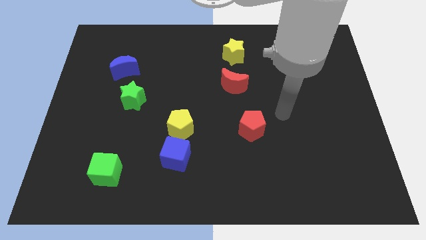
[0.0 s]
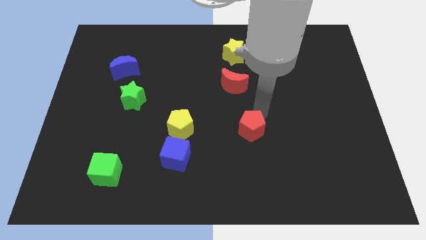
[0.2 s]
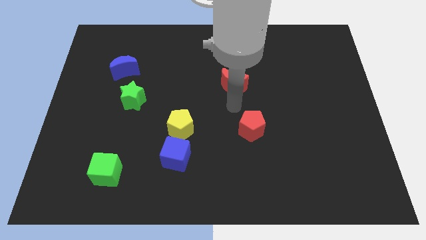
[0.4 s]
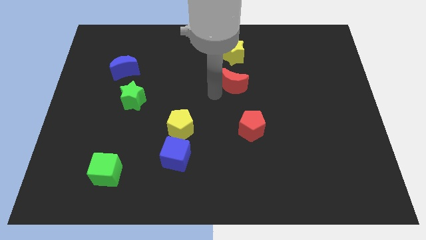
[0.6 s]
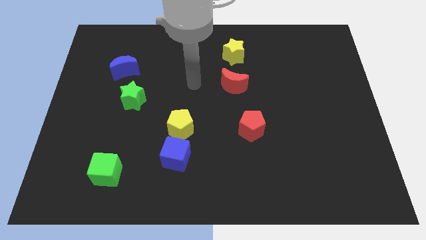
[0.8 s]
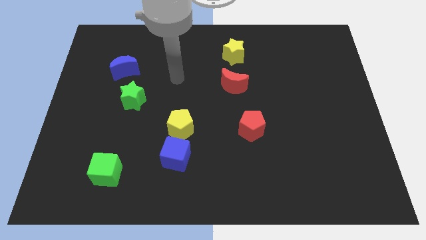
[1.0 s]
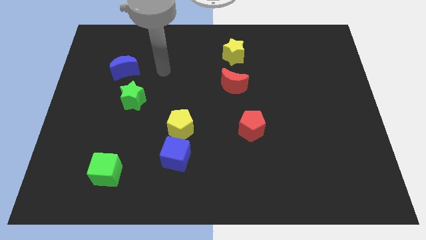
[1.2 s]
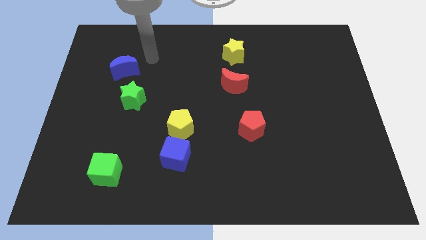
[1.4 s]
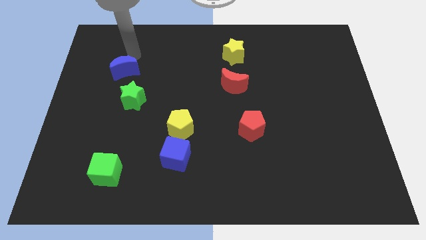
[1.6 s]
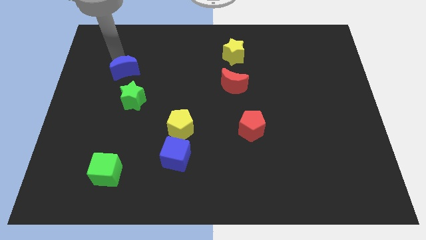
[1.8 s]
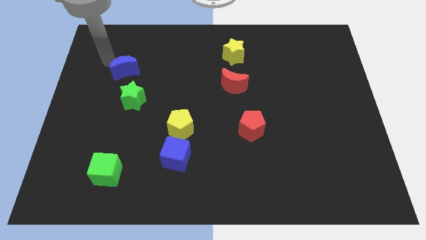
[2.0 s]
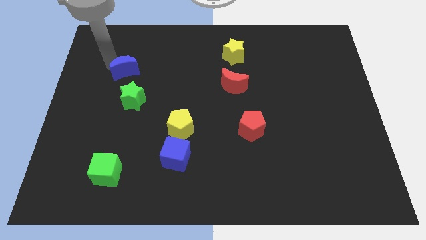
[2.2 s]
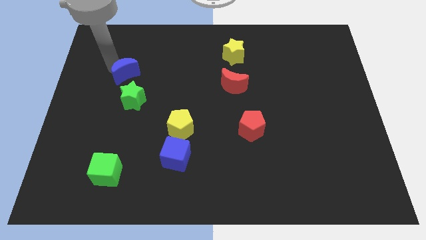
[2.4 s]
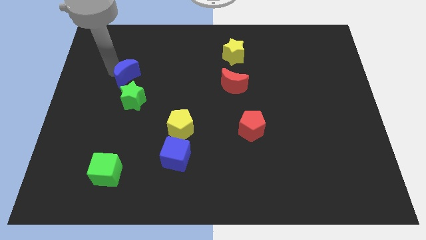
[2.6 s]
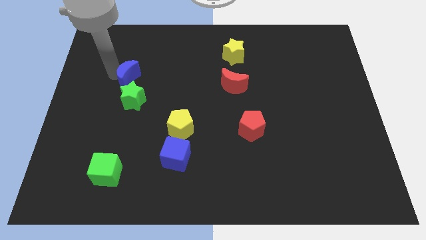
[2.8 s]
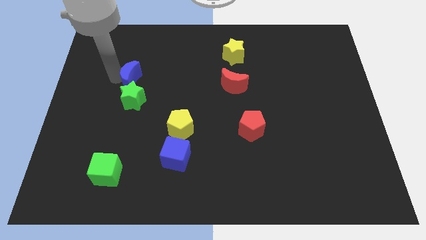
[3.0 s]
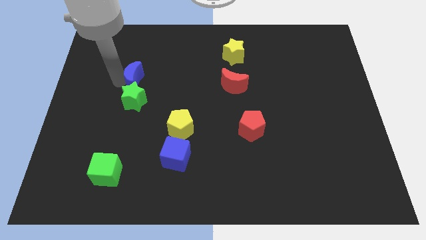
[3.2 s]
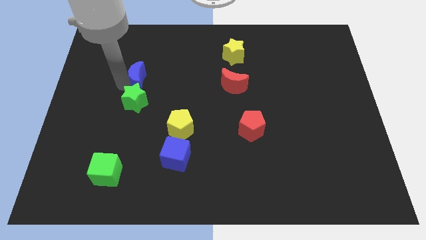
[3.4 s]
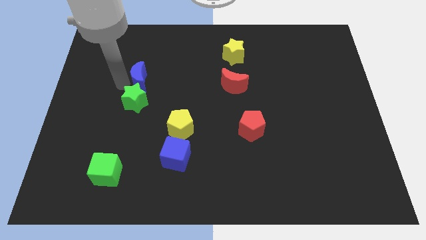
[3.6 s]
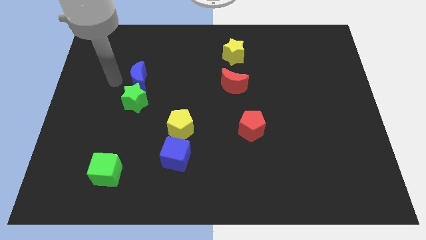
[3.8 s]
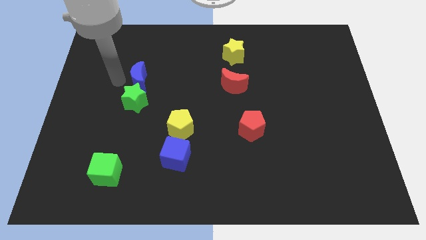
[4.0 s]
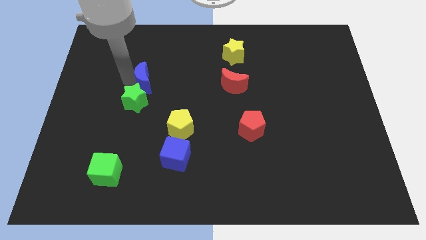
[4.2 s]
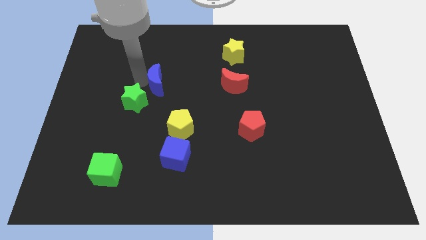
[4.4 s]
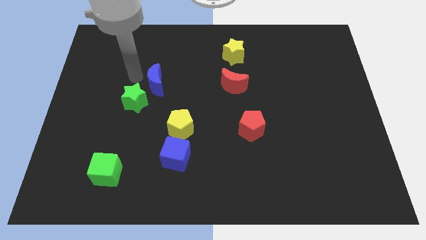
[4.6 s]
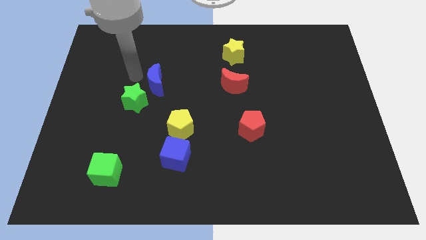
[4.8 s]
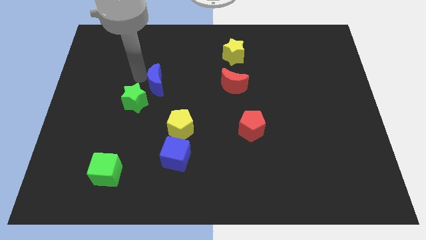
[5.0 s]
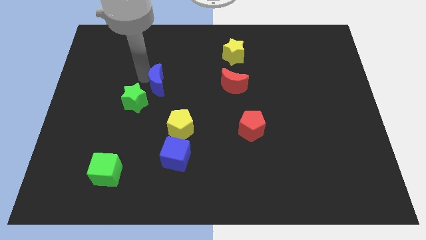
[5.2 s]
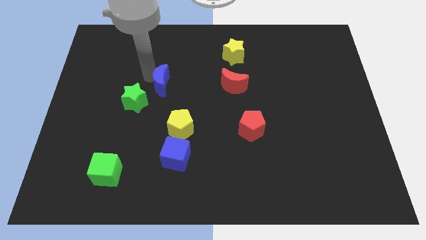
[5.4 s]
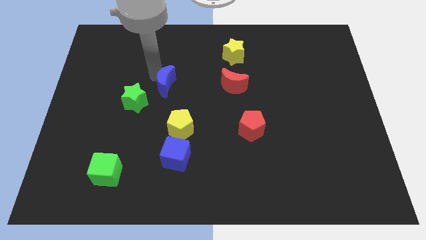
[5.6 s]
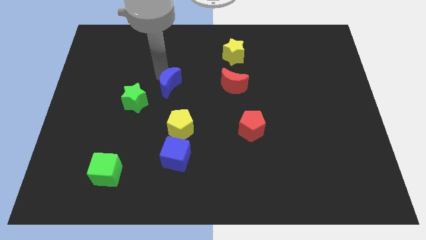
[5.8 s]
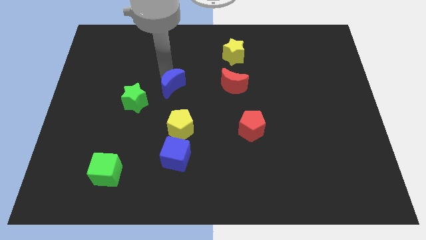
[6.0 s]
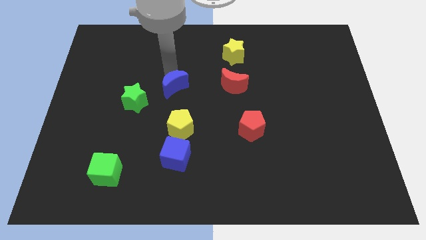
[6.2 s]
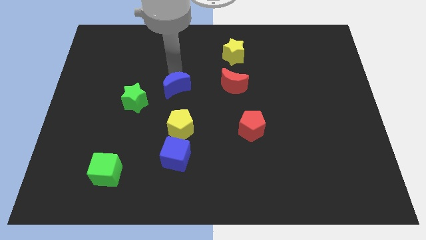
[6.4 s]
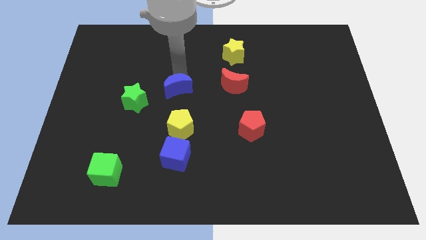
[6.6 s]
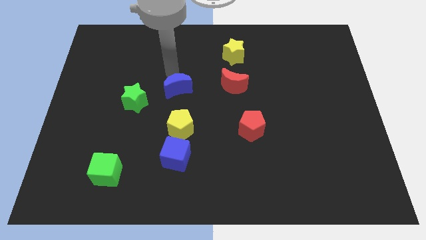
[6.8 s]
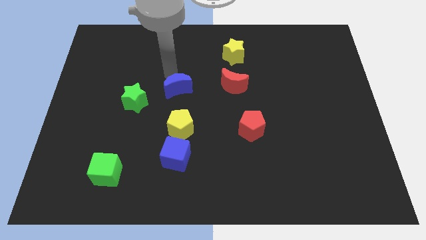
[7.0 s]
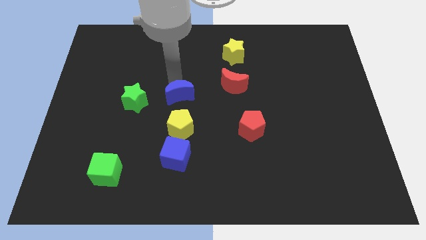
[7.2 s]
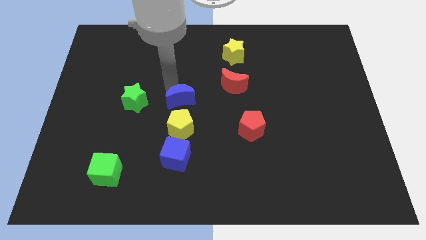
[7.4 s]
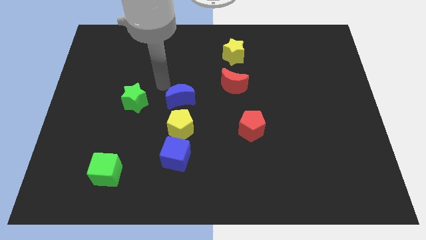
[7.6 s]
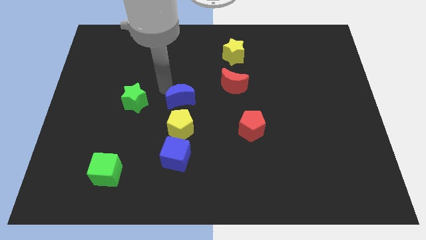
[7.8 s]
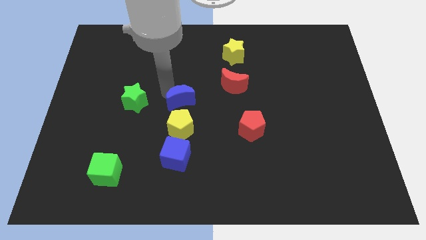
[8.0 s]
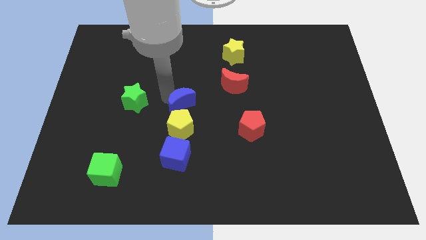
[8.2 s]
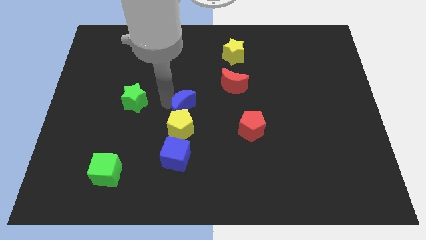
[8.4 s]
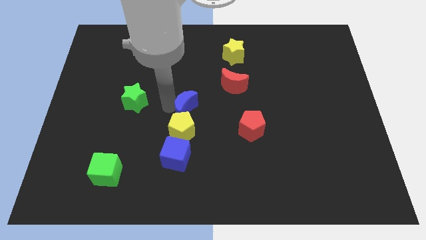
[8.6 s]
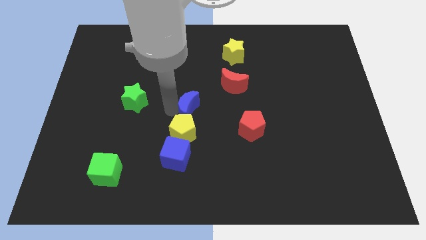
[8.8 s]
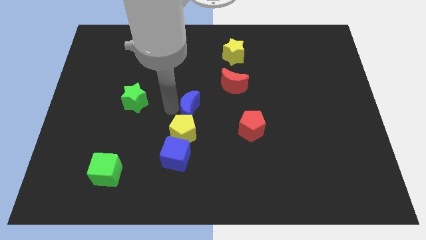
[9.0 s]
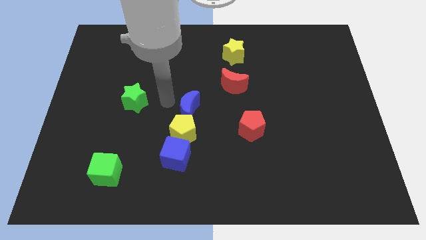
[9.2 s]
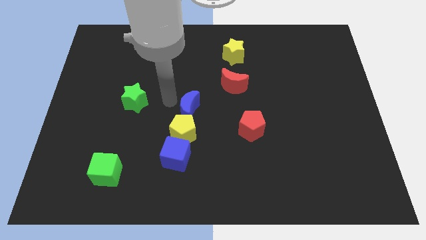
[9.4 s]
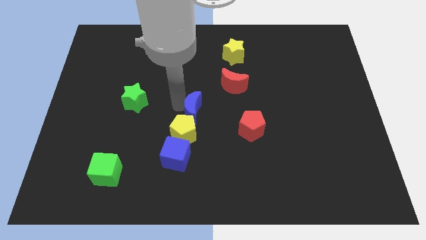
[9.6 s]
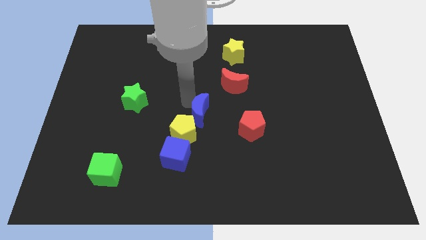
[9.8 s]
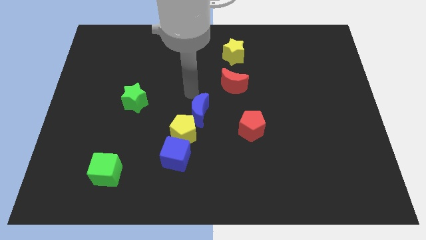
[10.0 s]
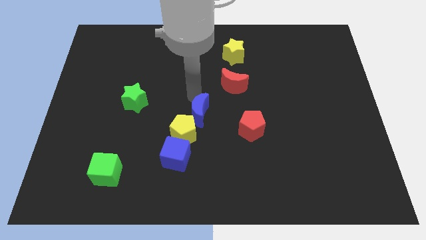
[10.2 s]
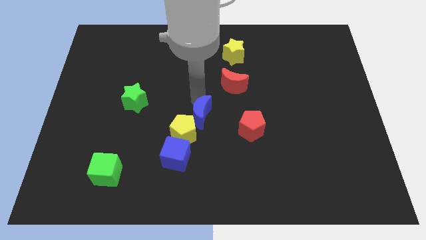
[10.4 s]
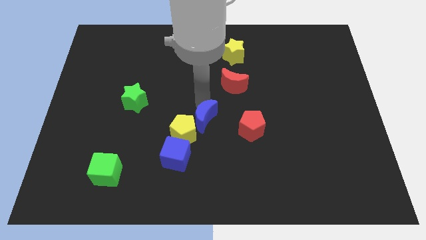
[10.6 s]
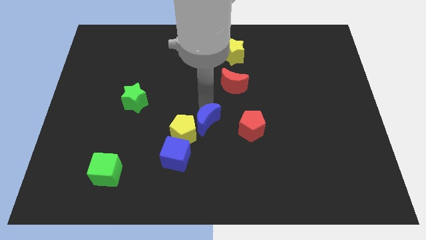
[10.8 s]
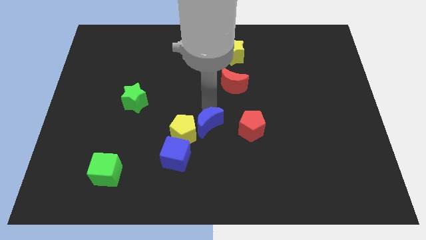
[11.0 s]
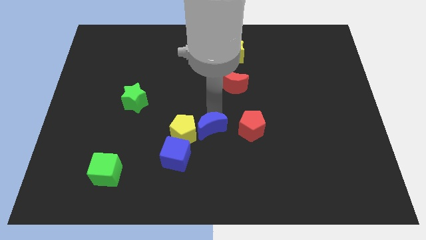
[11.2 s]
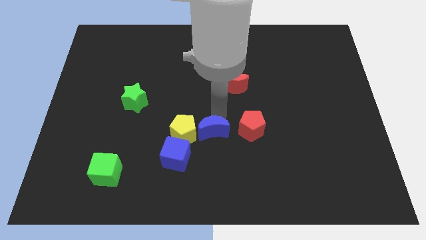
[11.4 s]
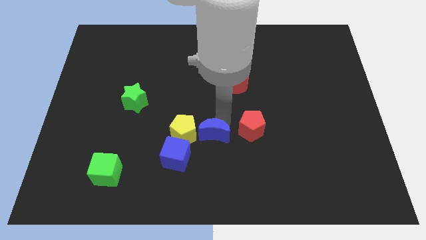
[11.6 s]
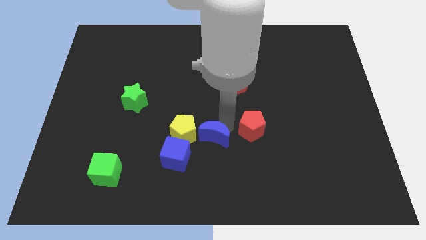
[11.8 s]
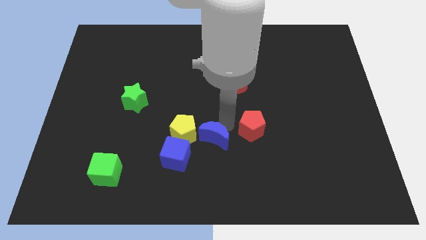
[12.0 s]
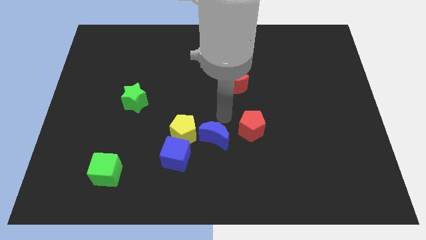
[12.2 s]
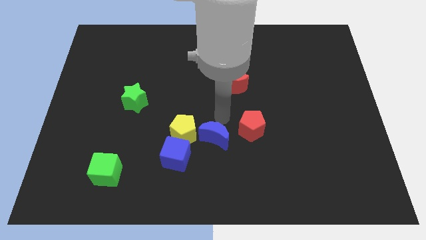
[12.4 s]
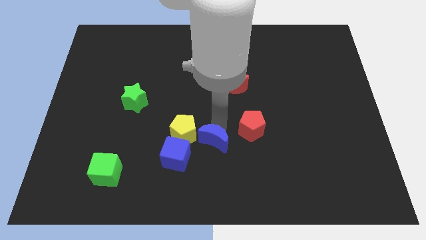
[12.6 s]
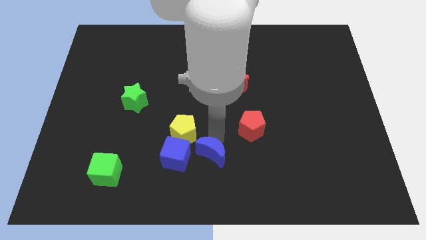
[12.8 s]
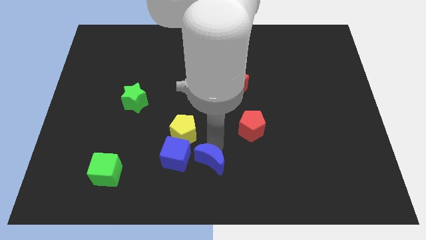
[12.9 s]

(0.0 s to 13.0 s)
put the blue moon to the bottom right of the blue cube

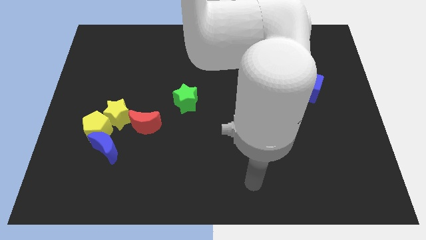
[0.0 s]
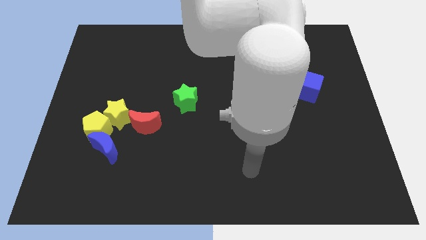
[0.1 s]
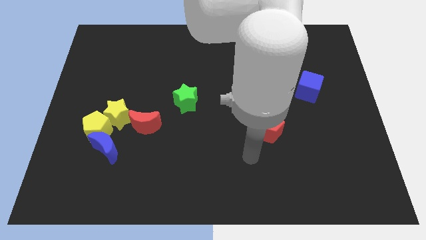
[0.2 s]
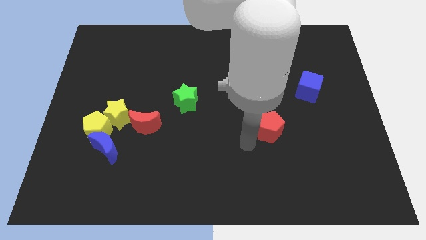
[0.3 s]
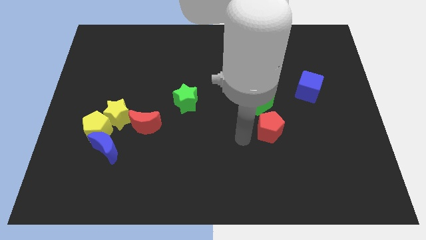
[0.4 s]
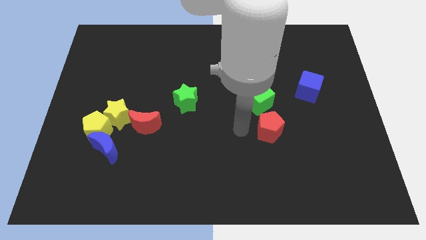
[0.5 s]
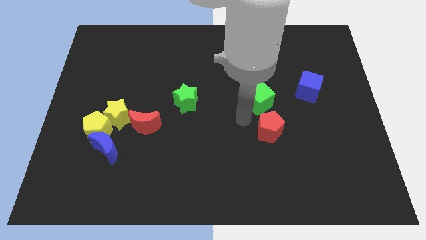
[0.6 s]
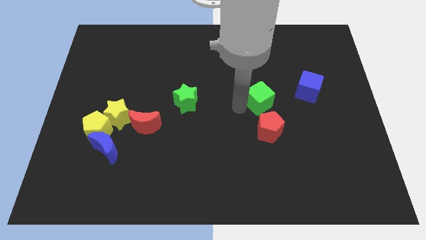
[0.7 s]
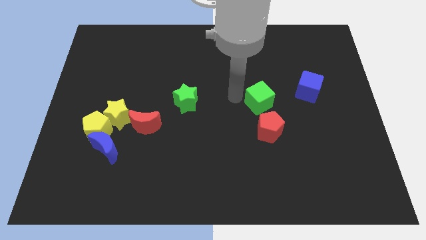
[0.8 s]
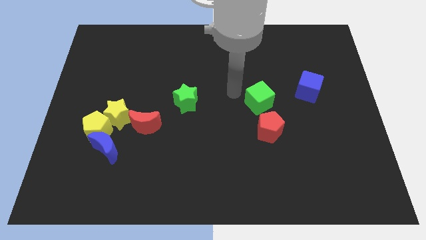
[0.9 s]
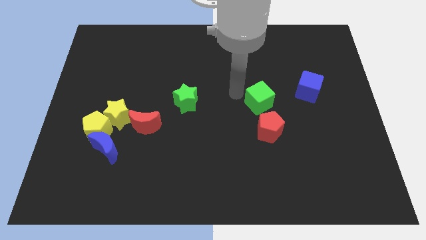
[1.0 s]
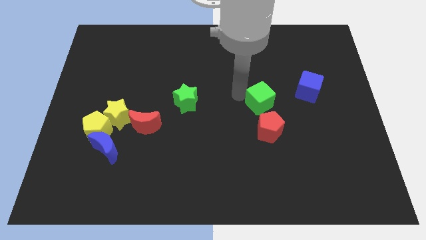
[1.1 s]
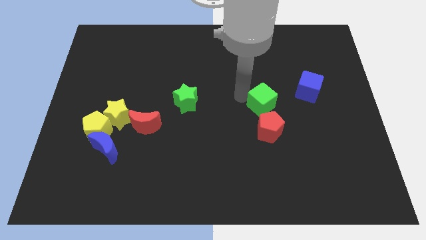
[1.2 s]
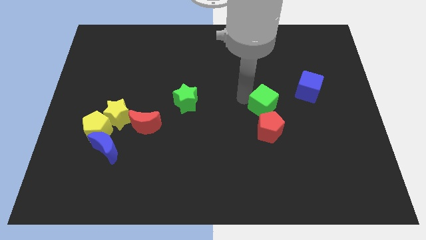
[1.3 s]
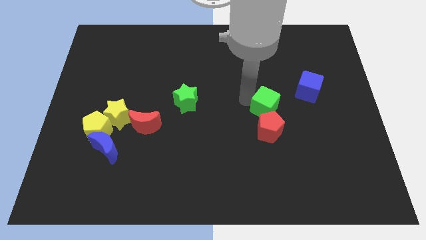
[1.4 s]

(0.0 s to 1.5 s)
move the green cube diagonally up and to the right of the red pentagon
